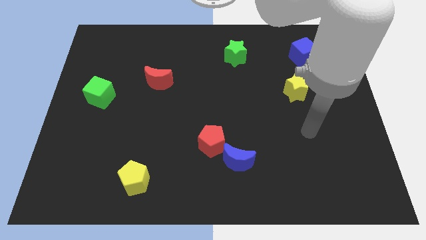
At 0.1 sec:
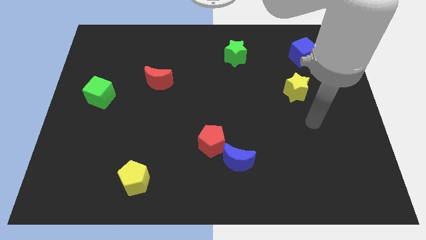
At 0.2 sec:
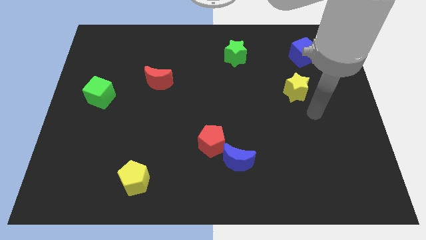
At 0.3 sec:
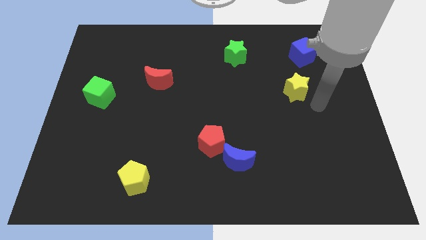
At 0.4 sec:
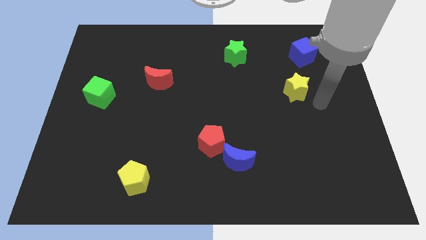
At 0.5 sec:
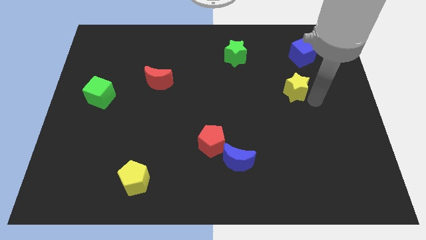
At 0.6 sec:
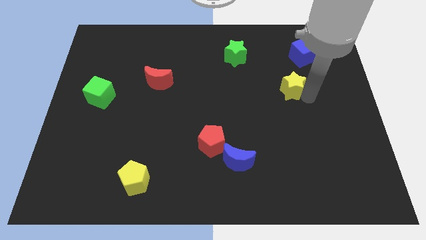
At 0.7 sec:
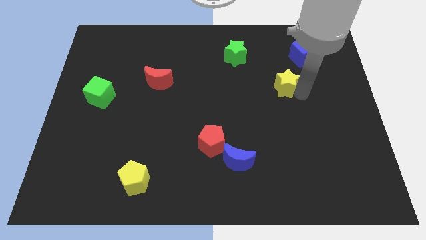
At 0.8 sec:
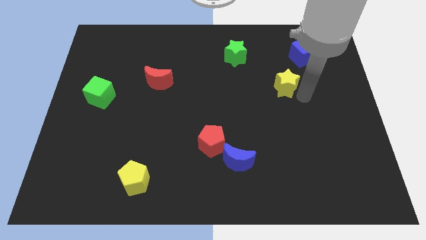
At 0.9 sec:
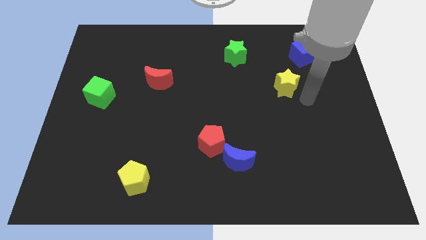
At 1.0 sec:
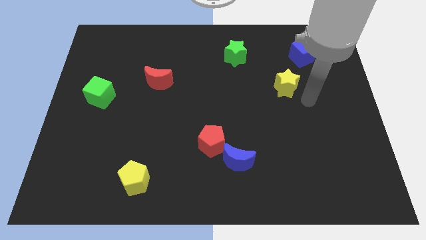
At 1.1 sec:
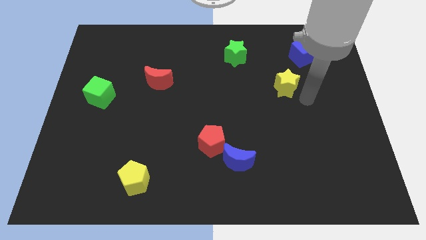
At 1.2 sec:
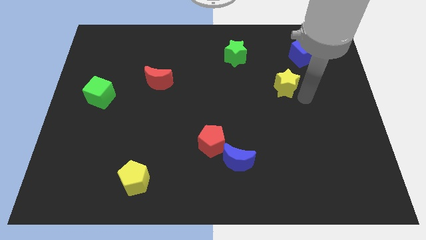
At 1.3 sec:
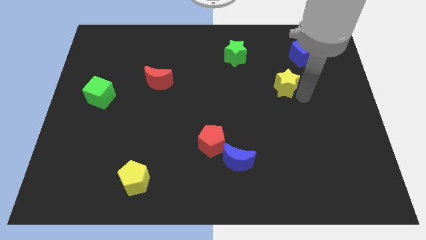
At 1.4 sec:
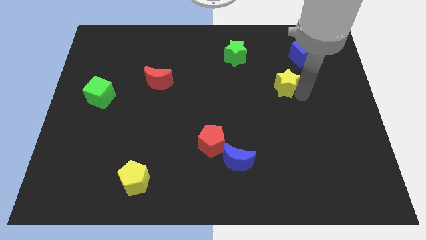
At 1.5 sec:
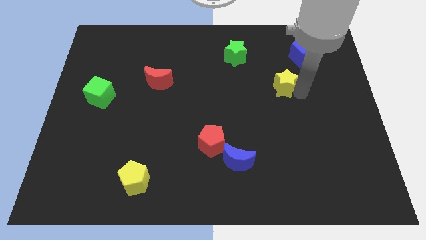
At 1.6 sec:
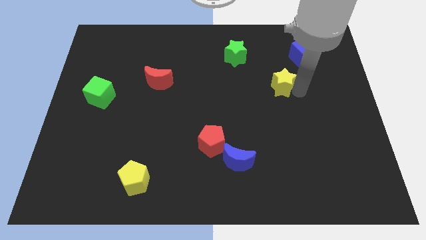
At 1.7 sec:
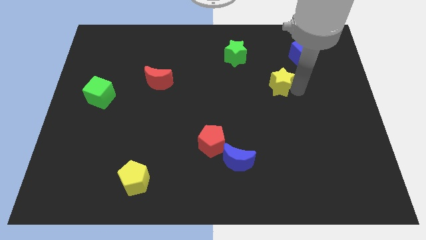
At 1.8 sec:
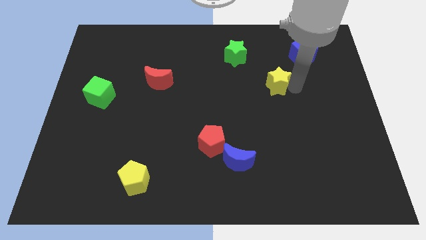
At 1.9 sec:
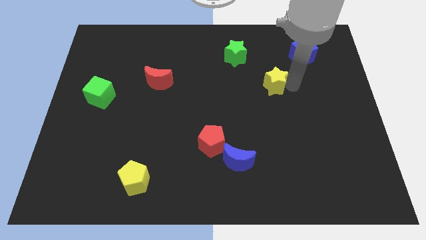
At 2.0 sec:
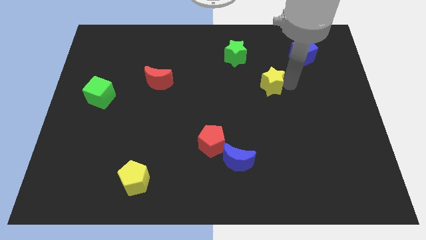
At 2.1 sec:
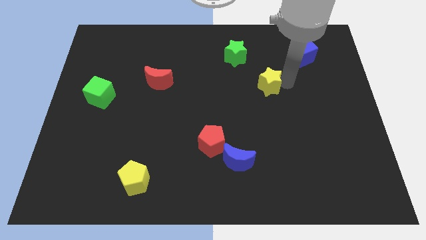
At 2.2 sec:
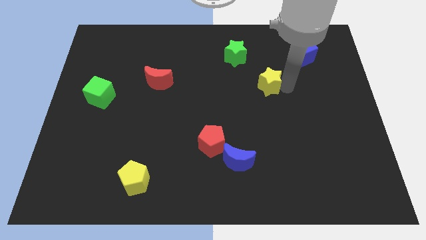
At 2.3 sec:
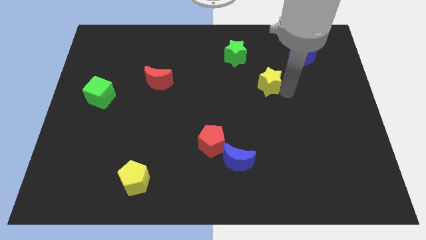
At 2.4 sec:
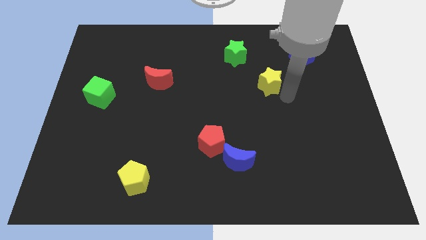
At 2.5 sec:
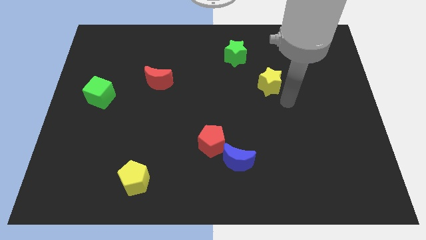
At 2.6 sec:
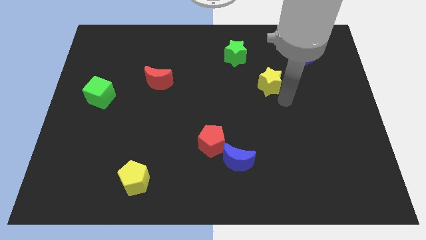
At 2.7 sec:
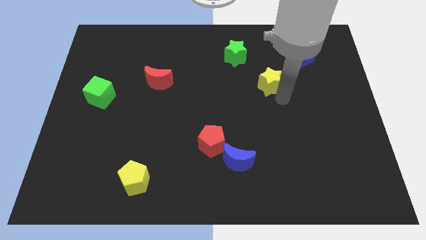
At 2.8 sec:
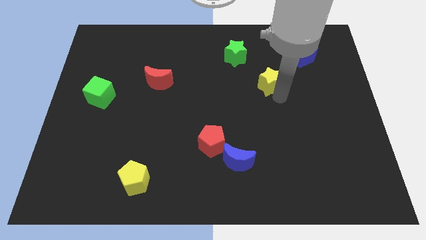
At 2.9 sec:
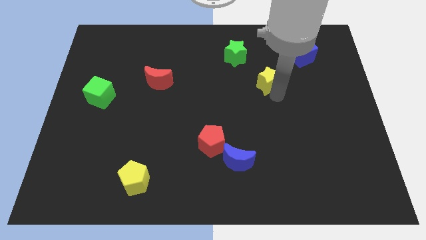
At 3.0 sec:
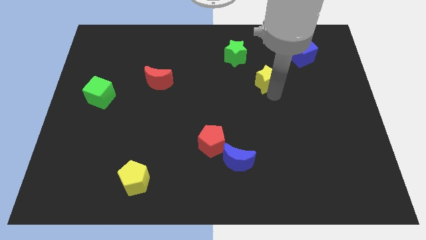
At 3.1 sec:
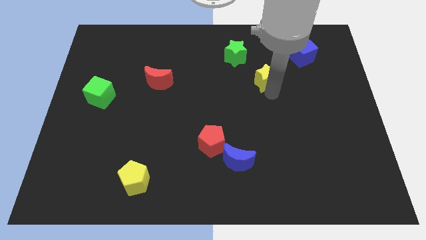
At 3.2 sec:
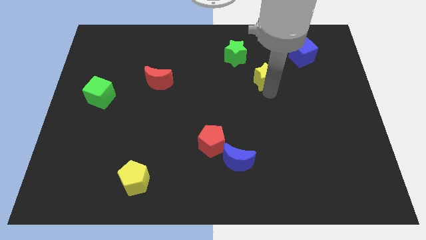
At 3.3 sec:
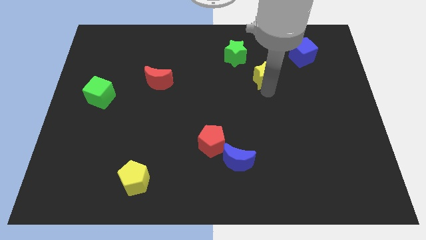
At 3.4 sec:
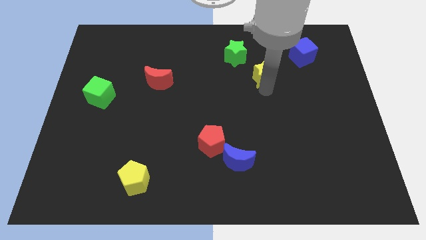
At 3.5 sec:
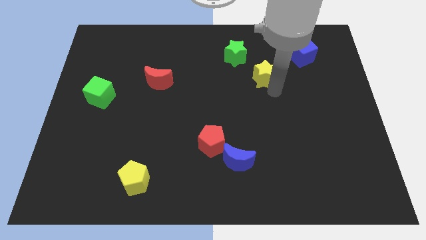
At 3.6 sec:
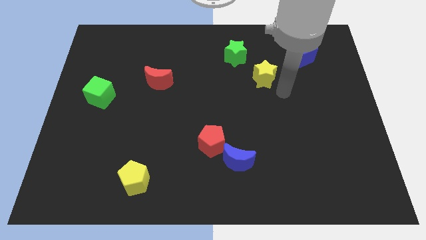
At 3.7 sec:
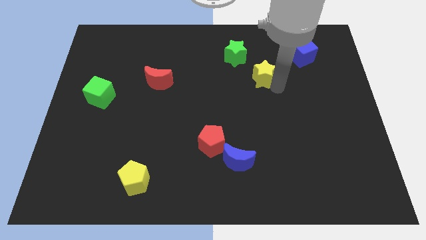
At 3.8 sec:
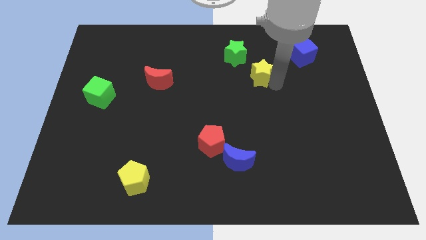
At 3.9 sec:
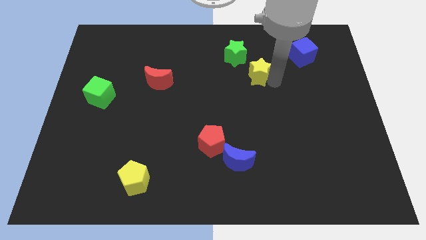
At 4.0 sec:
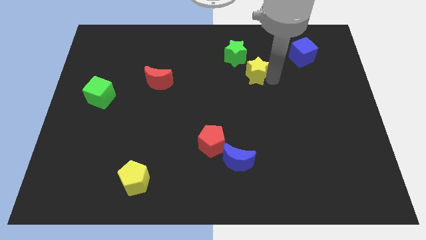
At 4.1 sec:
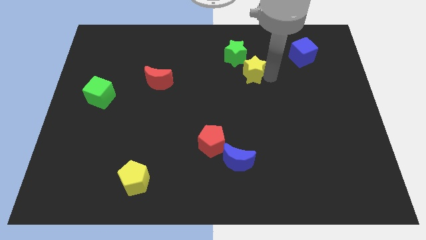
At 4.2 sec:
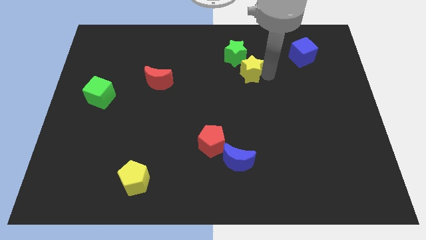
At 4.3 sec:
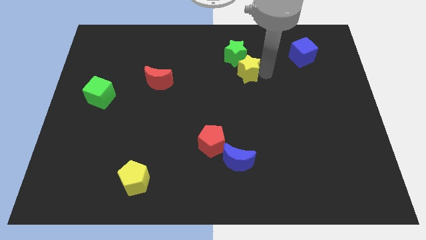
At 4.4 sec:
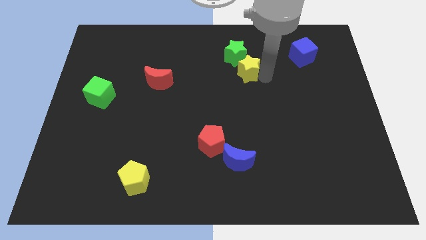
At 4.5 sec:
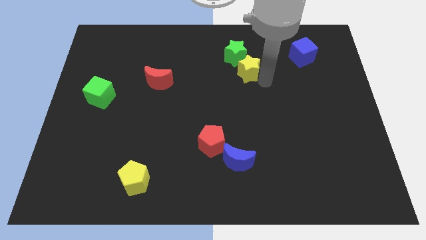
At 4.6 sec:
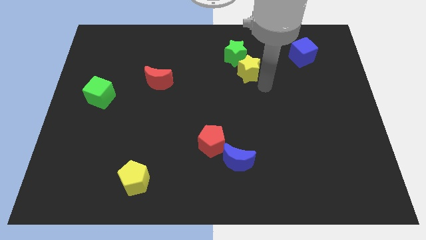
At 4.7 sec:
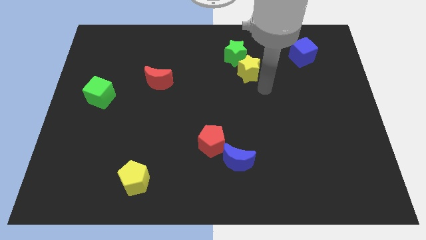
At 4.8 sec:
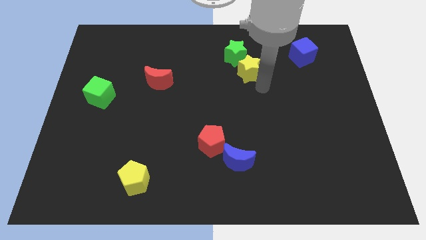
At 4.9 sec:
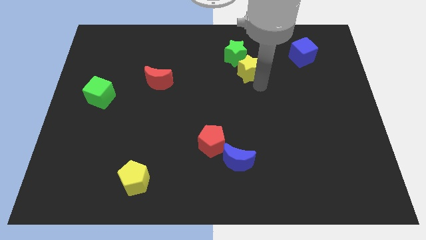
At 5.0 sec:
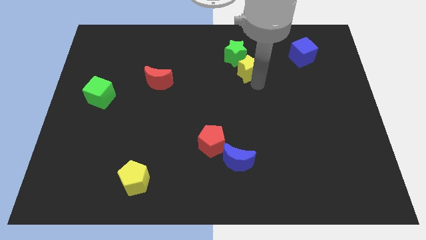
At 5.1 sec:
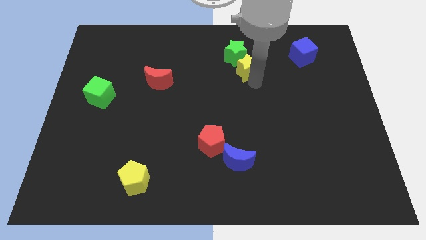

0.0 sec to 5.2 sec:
put the yellow star to the green star

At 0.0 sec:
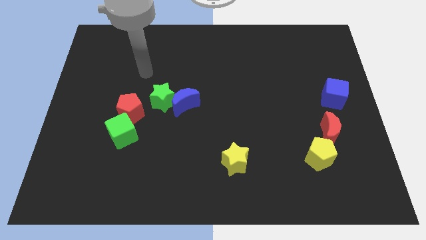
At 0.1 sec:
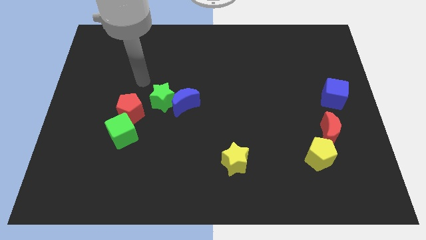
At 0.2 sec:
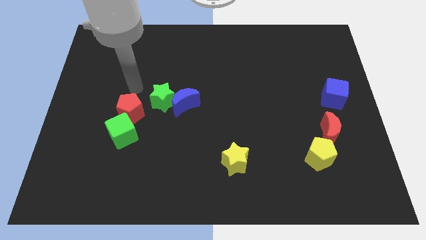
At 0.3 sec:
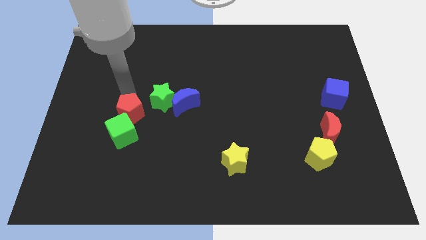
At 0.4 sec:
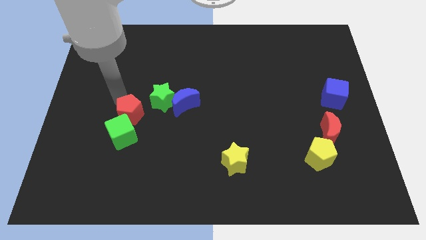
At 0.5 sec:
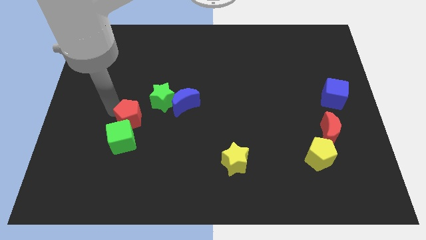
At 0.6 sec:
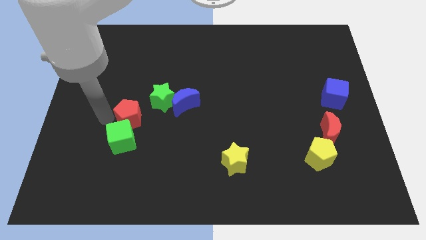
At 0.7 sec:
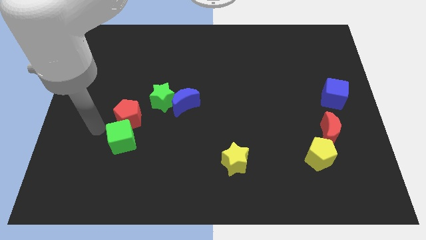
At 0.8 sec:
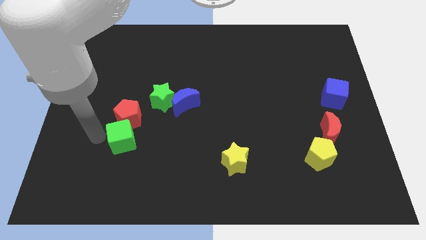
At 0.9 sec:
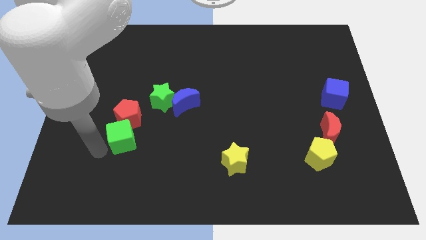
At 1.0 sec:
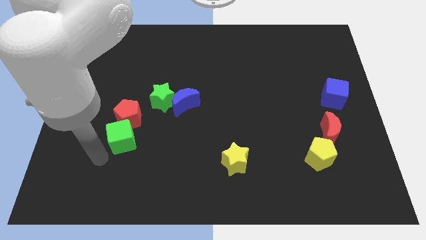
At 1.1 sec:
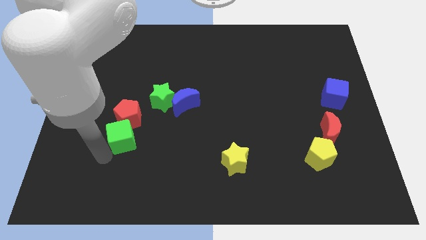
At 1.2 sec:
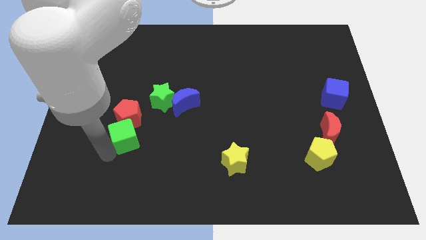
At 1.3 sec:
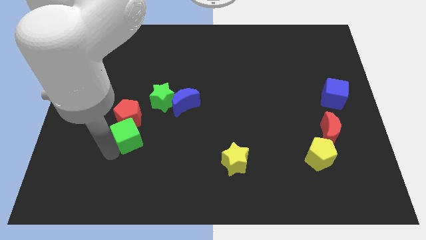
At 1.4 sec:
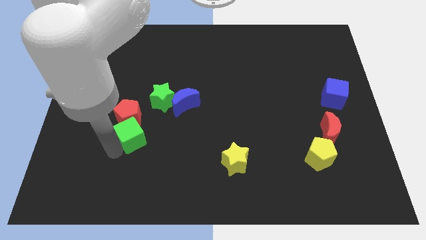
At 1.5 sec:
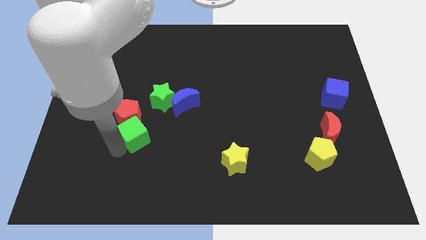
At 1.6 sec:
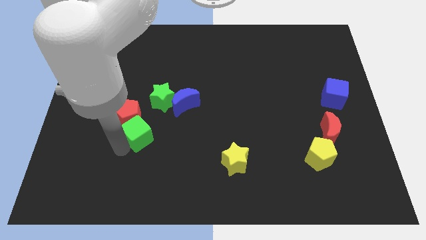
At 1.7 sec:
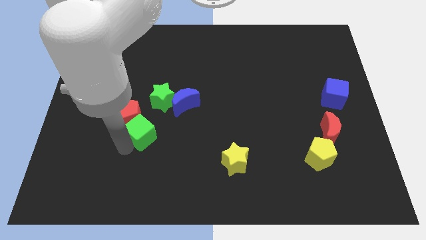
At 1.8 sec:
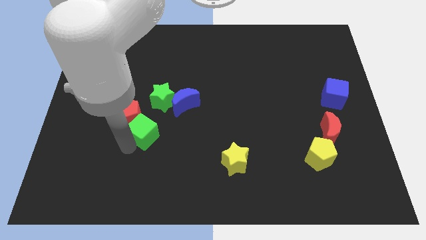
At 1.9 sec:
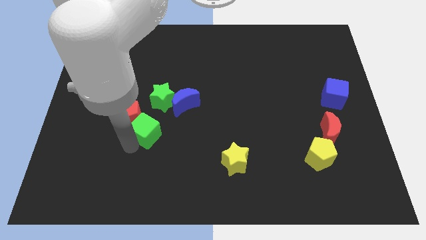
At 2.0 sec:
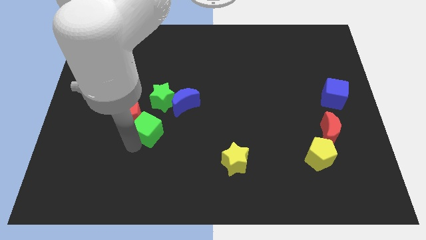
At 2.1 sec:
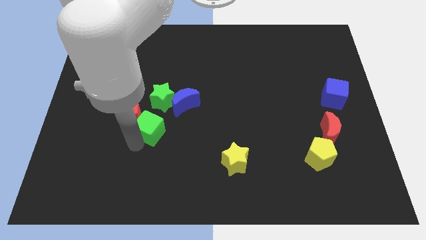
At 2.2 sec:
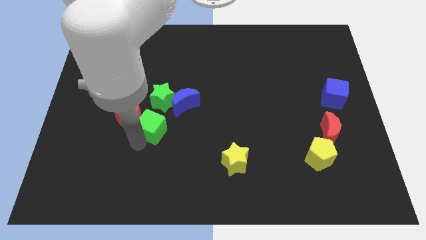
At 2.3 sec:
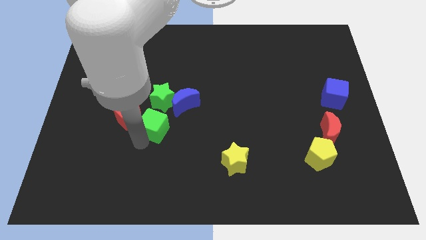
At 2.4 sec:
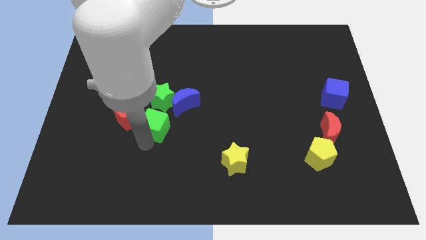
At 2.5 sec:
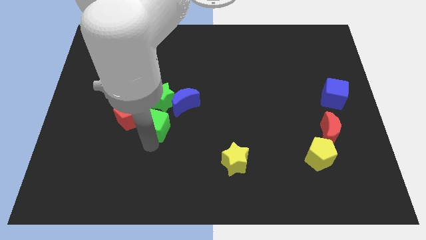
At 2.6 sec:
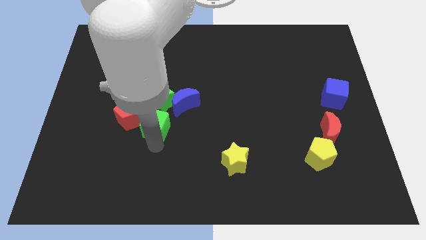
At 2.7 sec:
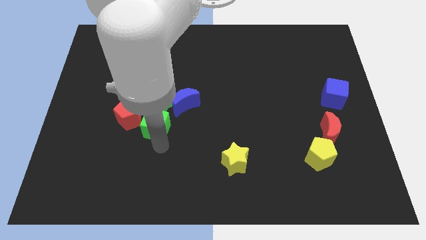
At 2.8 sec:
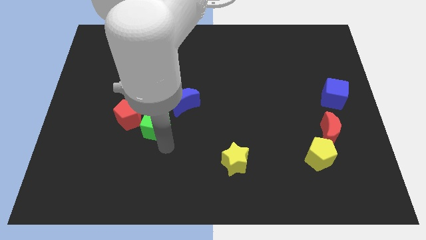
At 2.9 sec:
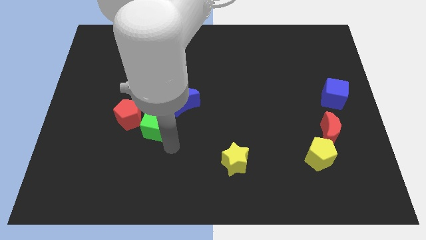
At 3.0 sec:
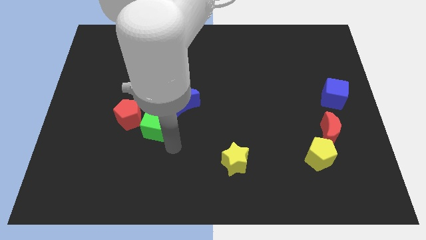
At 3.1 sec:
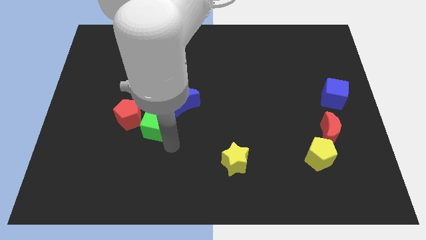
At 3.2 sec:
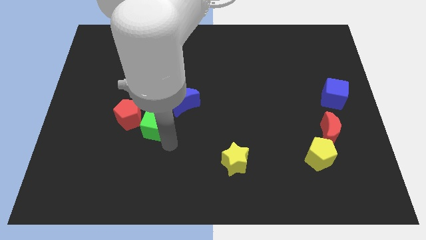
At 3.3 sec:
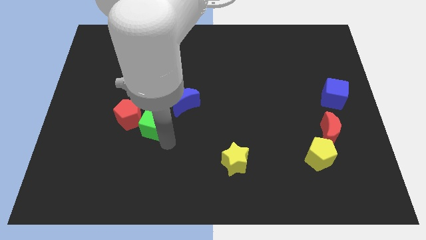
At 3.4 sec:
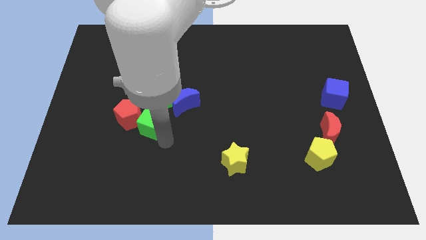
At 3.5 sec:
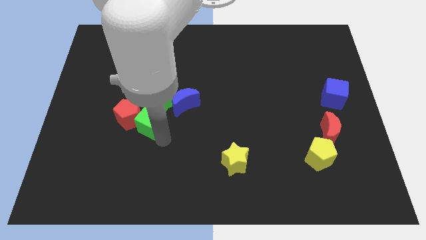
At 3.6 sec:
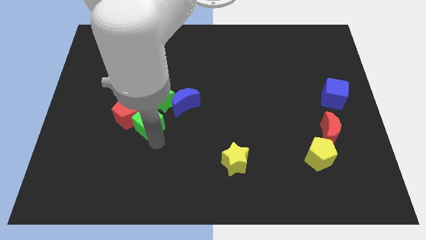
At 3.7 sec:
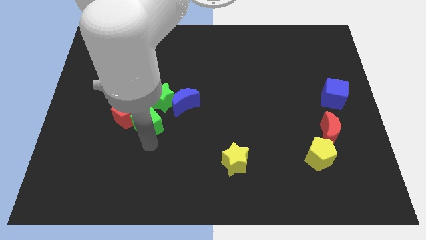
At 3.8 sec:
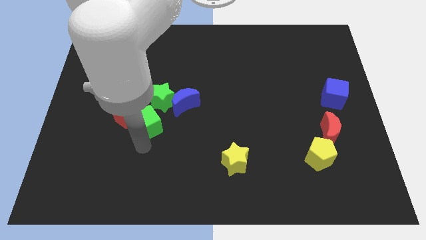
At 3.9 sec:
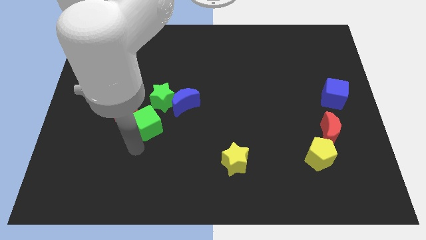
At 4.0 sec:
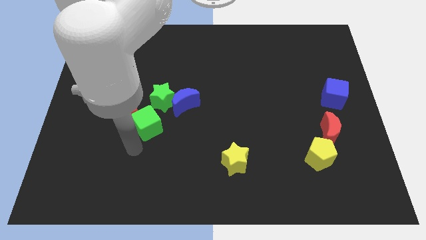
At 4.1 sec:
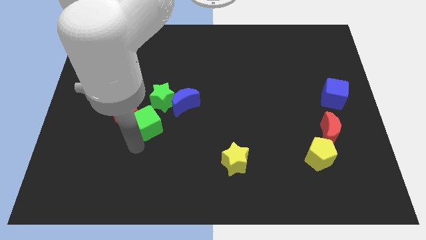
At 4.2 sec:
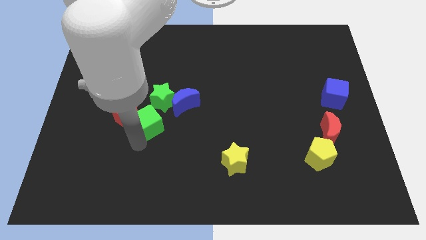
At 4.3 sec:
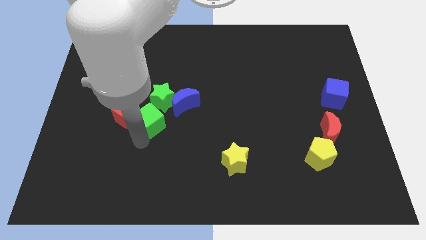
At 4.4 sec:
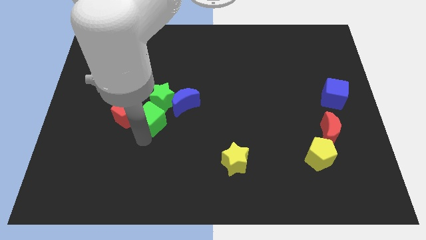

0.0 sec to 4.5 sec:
push the green cube towards the green star
